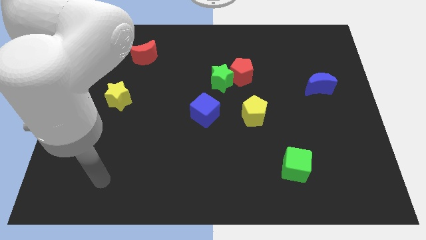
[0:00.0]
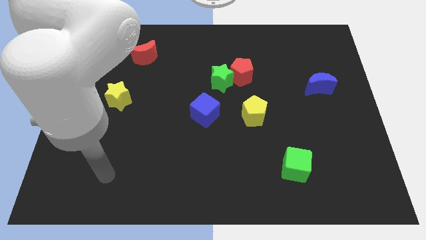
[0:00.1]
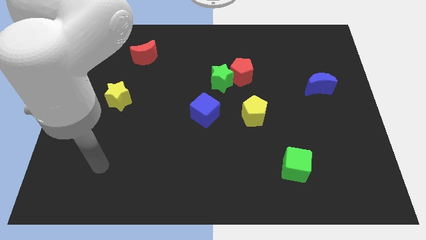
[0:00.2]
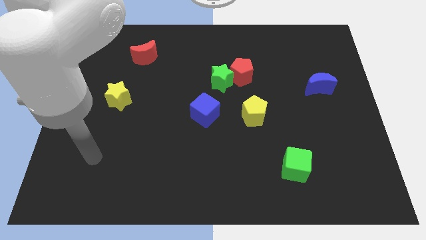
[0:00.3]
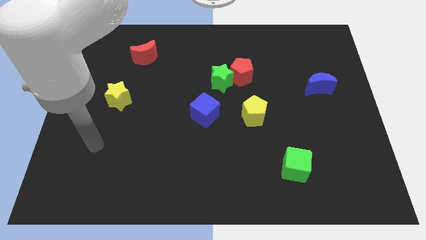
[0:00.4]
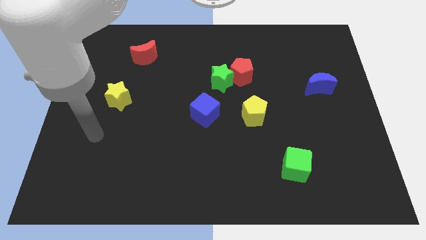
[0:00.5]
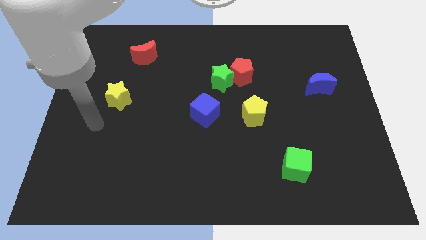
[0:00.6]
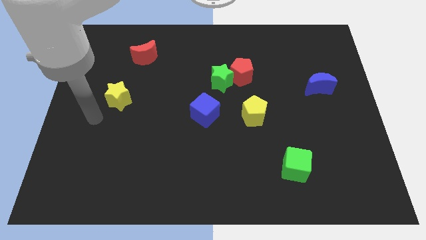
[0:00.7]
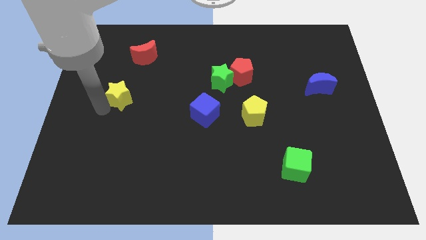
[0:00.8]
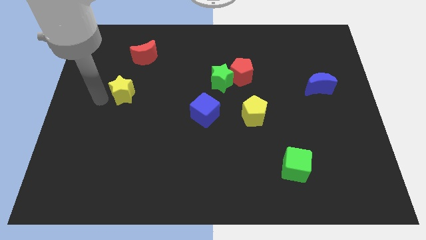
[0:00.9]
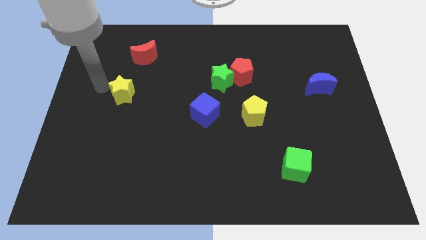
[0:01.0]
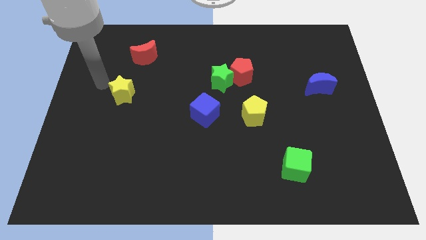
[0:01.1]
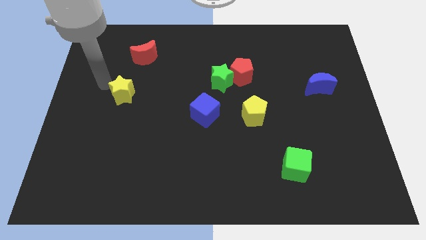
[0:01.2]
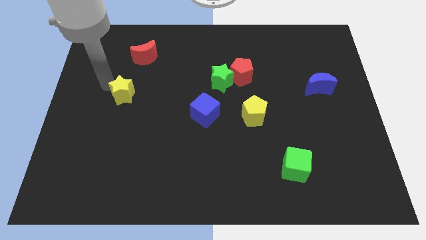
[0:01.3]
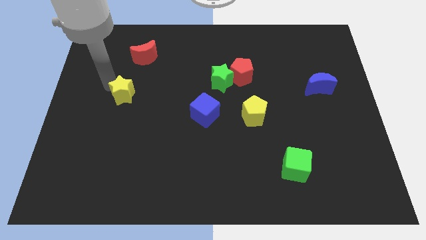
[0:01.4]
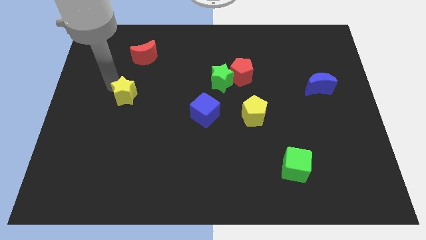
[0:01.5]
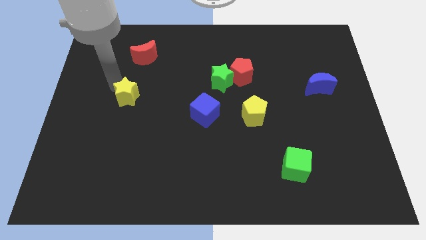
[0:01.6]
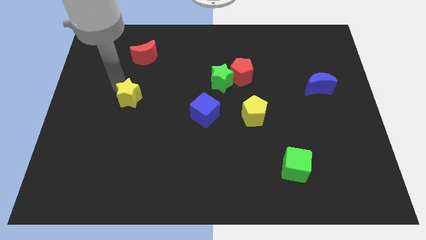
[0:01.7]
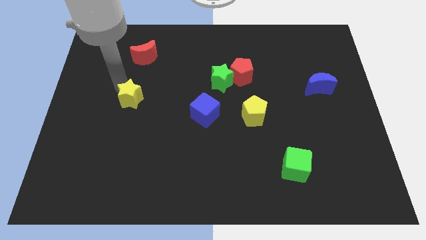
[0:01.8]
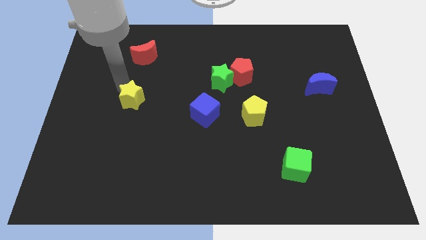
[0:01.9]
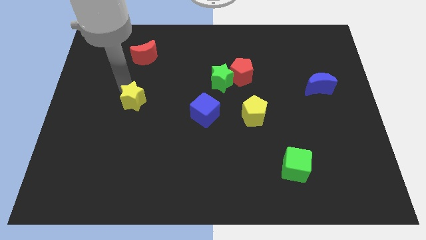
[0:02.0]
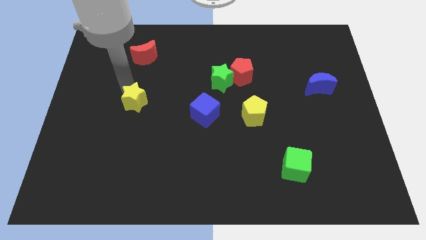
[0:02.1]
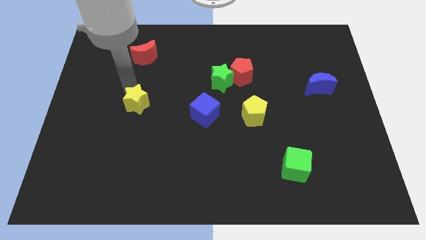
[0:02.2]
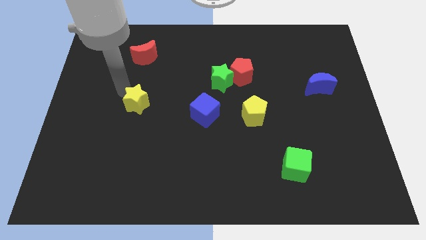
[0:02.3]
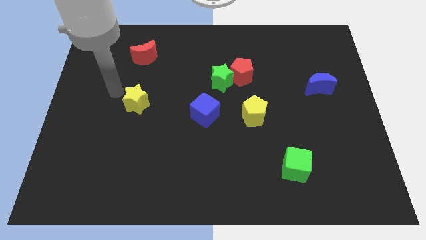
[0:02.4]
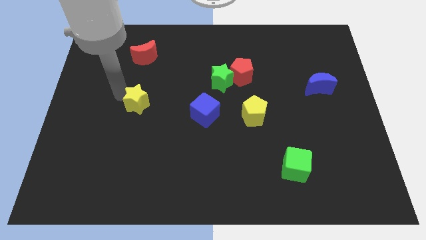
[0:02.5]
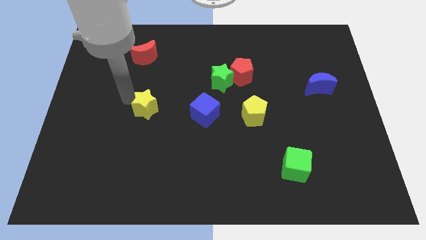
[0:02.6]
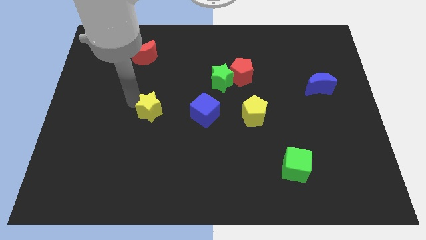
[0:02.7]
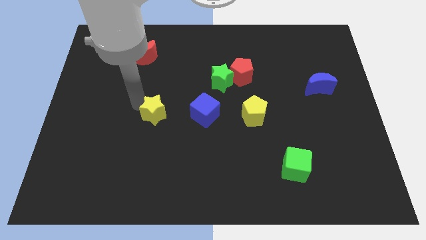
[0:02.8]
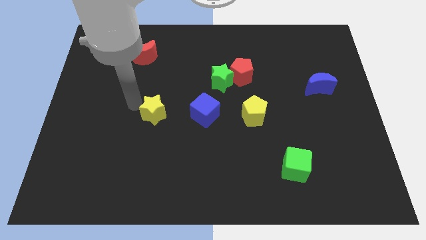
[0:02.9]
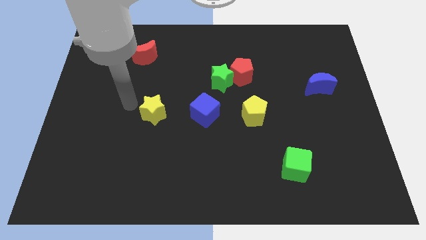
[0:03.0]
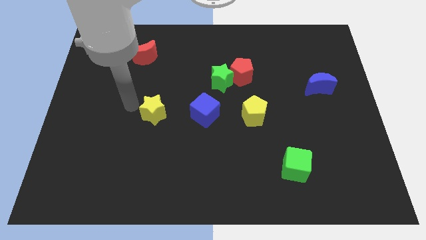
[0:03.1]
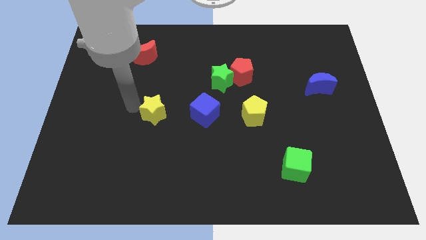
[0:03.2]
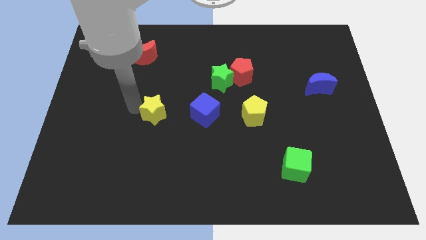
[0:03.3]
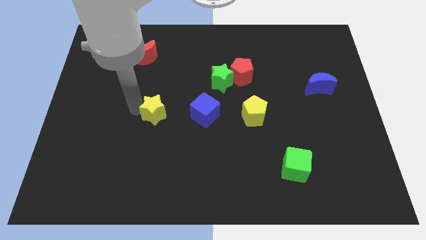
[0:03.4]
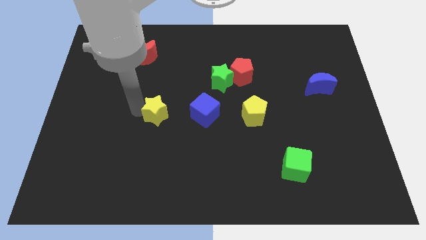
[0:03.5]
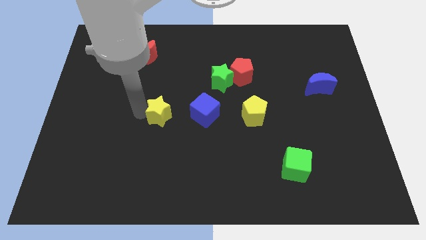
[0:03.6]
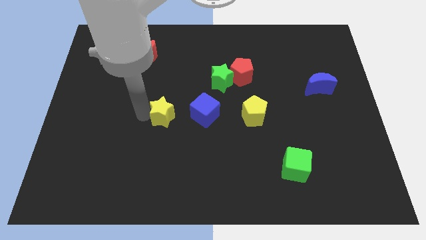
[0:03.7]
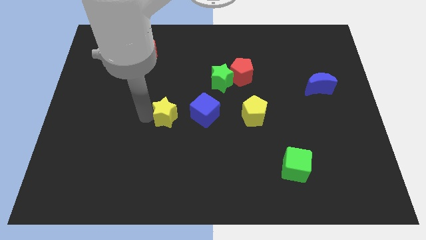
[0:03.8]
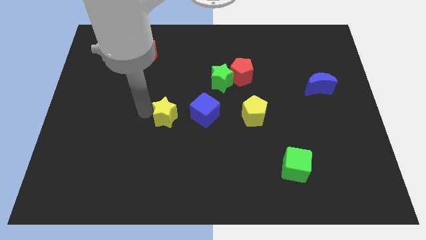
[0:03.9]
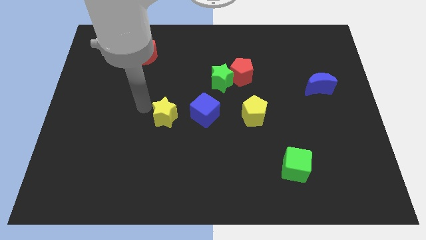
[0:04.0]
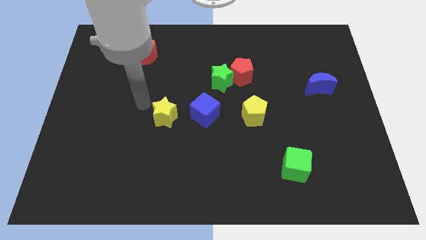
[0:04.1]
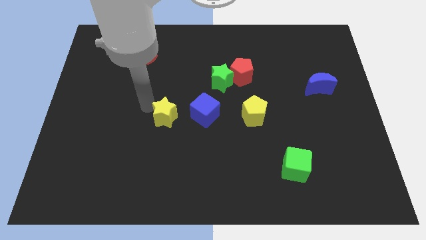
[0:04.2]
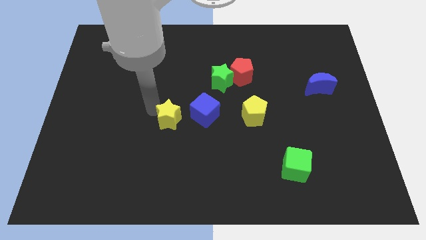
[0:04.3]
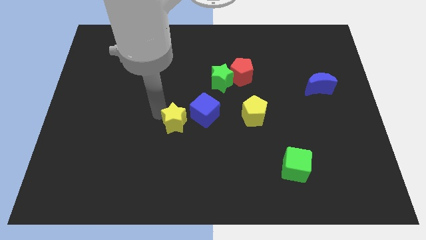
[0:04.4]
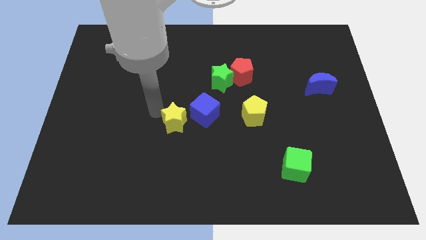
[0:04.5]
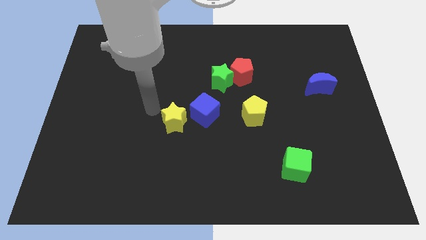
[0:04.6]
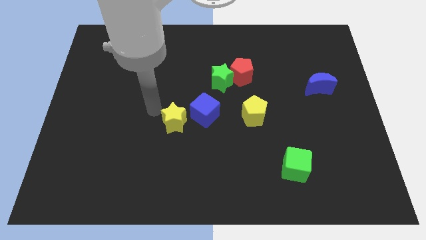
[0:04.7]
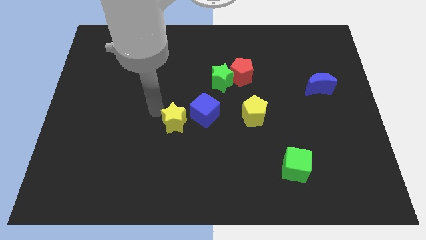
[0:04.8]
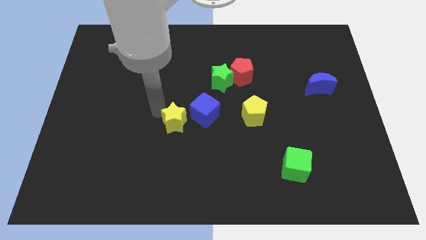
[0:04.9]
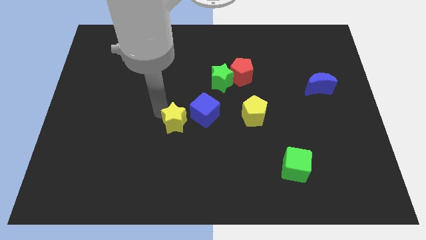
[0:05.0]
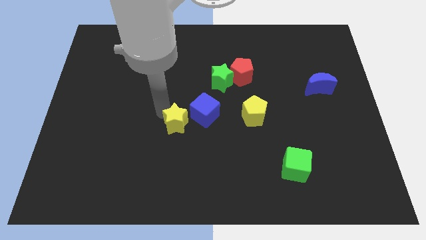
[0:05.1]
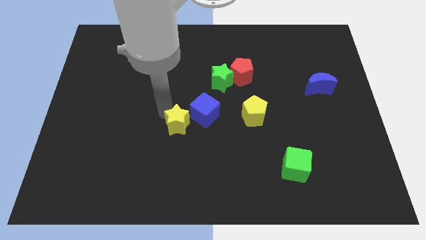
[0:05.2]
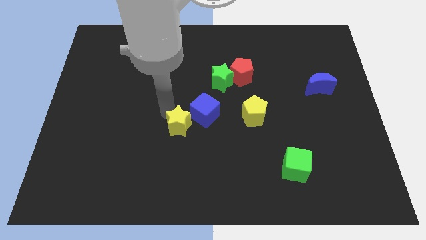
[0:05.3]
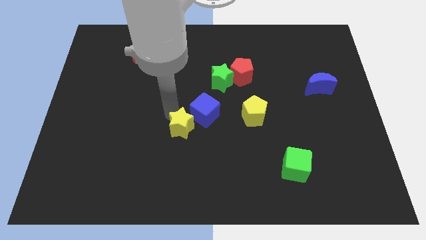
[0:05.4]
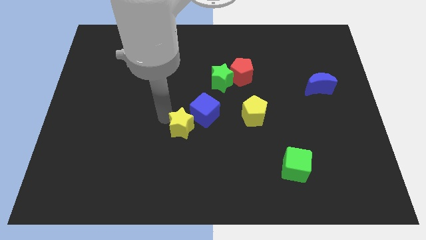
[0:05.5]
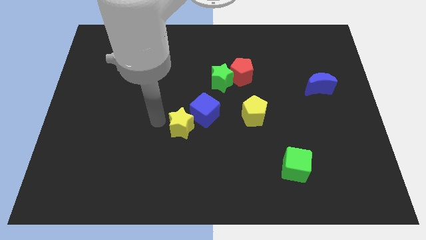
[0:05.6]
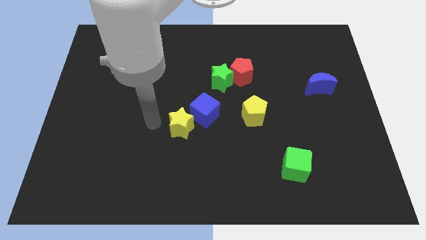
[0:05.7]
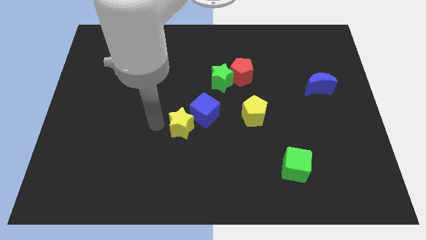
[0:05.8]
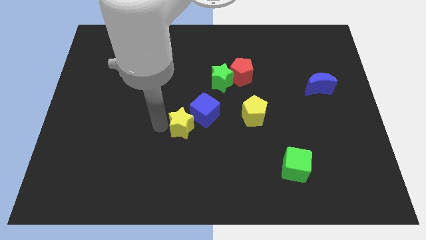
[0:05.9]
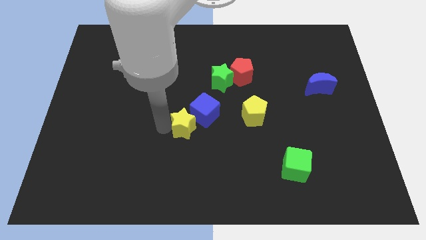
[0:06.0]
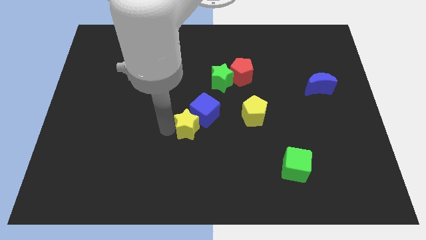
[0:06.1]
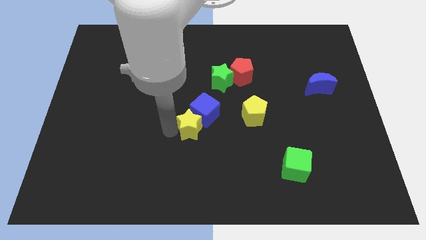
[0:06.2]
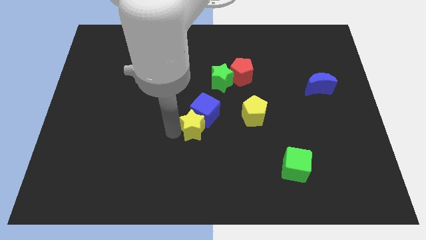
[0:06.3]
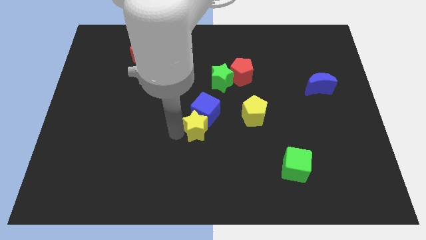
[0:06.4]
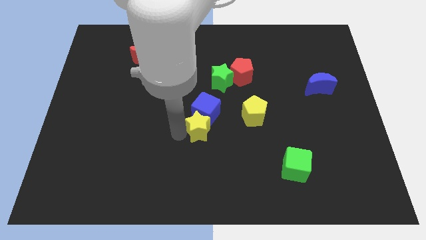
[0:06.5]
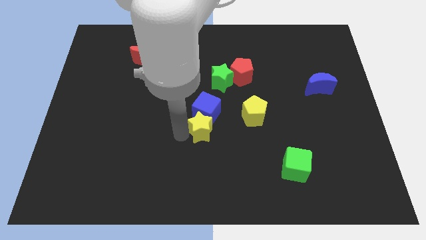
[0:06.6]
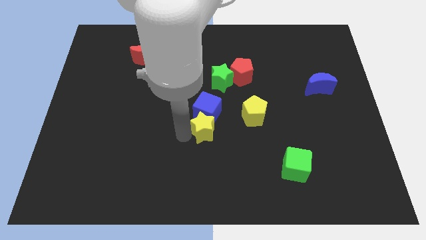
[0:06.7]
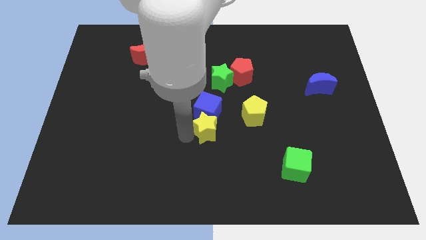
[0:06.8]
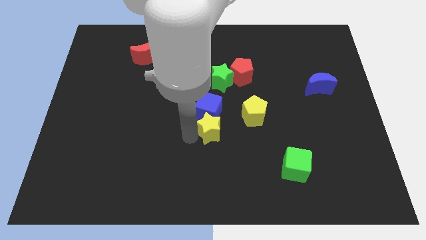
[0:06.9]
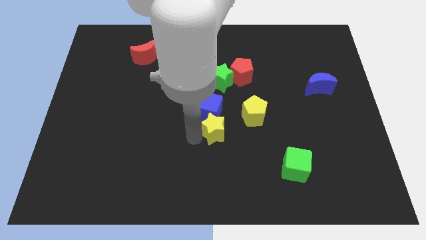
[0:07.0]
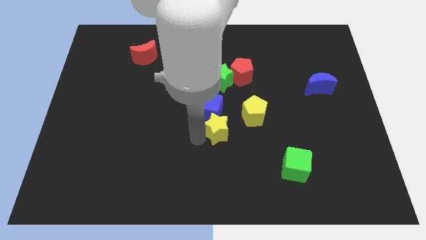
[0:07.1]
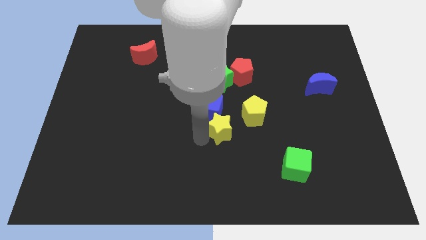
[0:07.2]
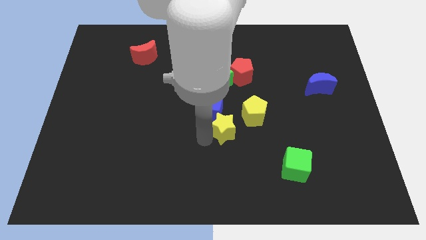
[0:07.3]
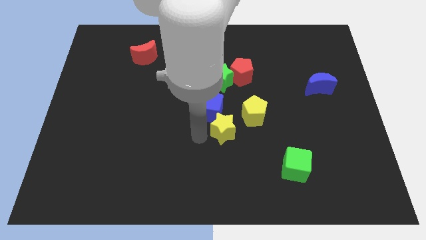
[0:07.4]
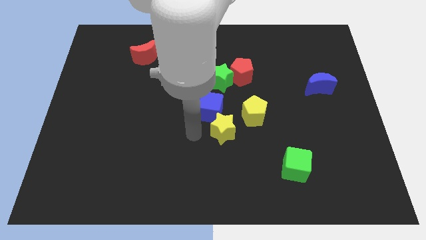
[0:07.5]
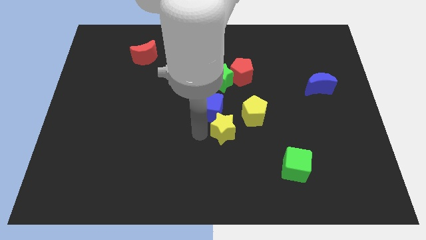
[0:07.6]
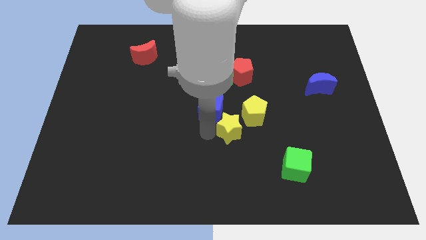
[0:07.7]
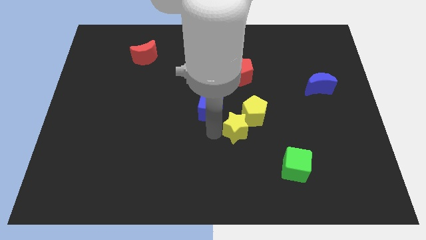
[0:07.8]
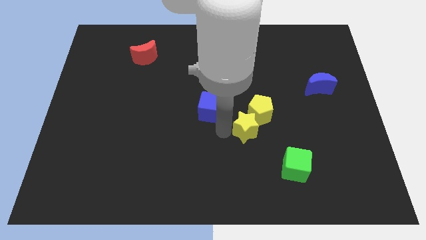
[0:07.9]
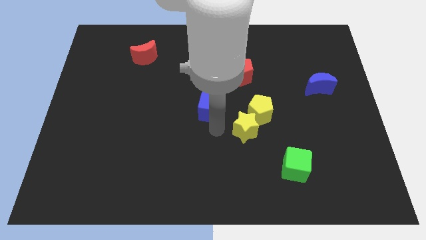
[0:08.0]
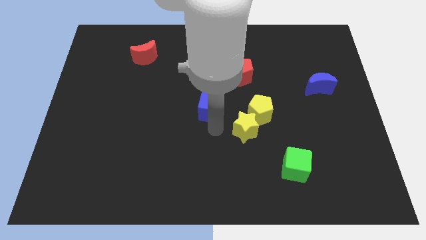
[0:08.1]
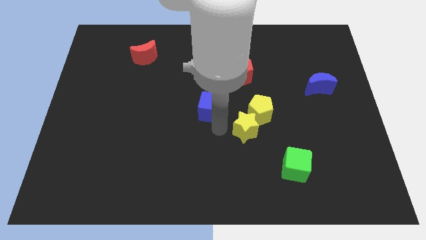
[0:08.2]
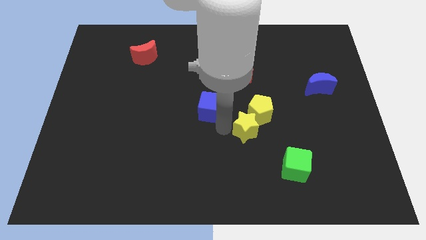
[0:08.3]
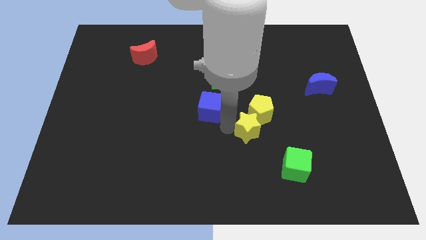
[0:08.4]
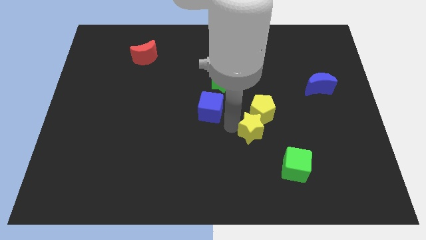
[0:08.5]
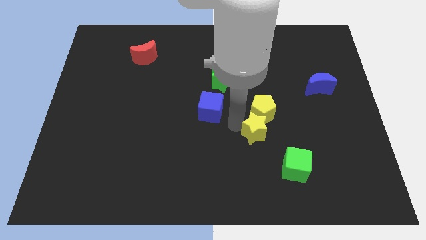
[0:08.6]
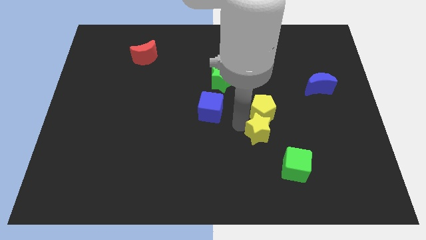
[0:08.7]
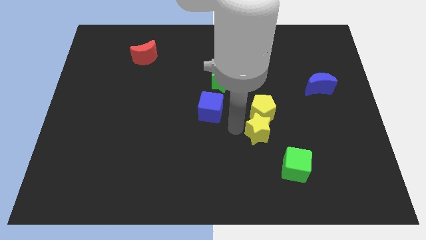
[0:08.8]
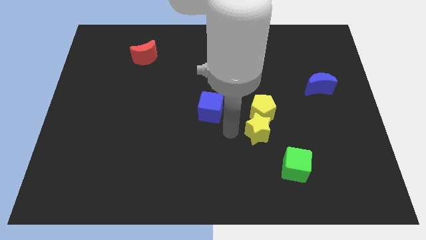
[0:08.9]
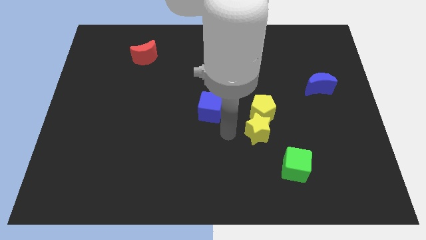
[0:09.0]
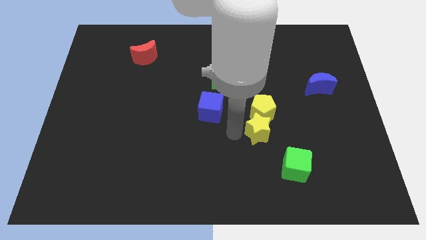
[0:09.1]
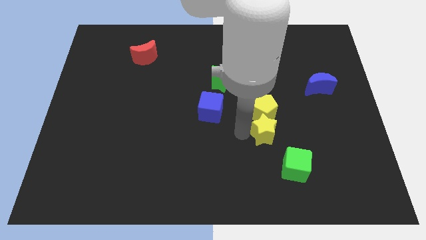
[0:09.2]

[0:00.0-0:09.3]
push the yellow star to the bottom right of the yellow pentagon
